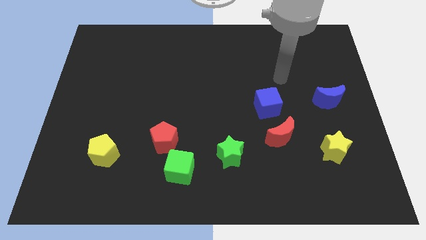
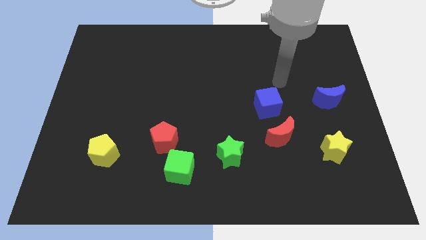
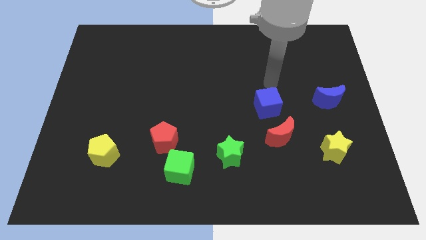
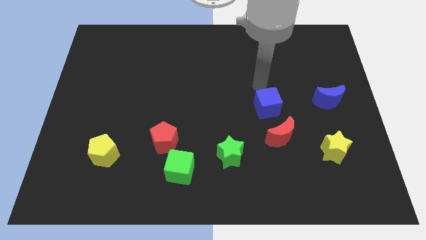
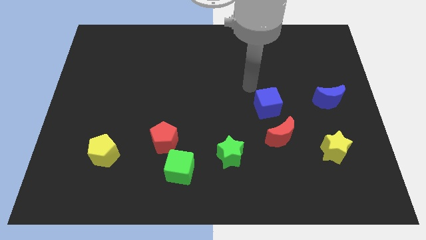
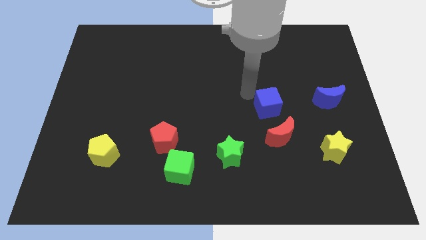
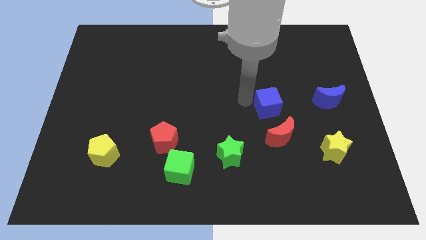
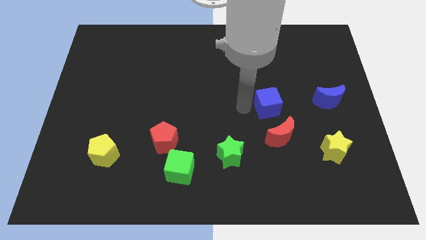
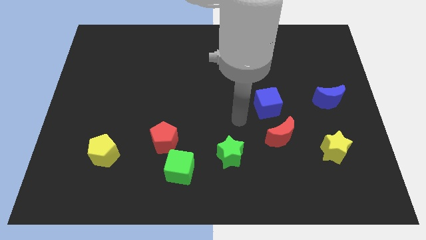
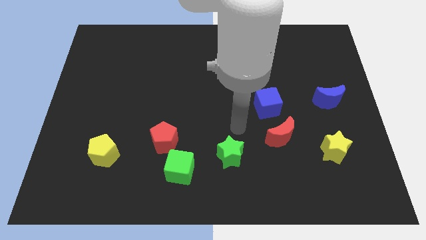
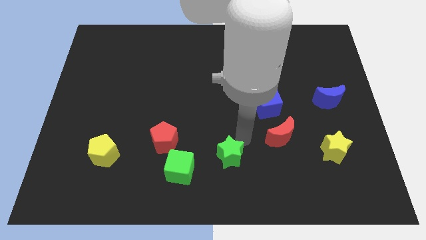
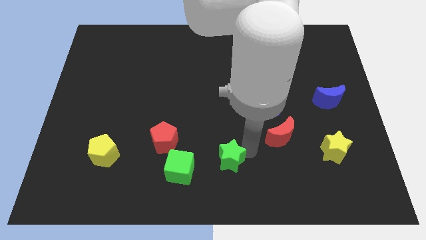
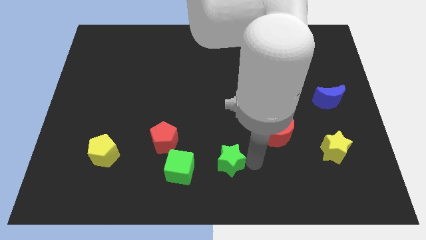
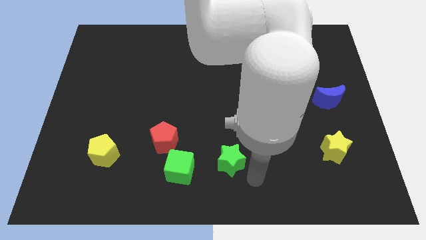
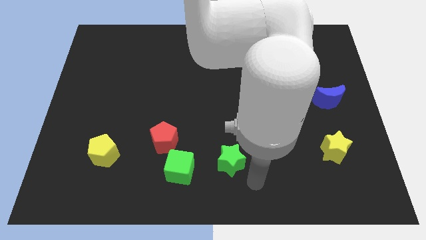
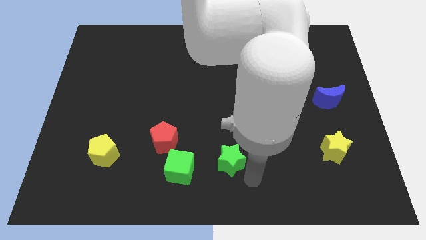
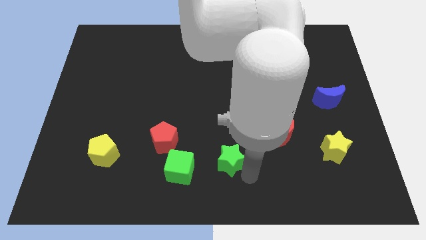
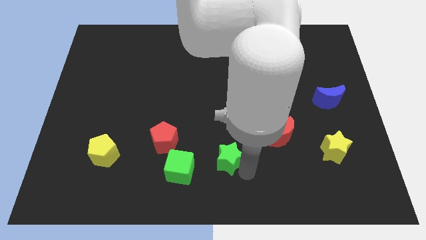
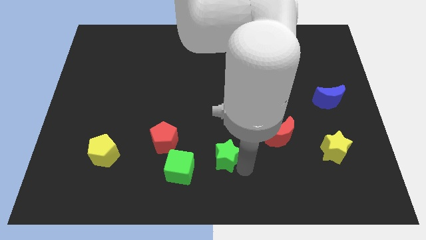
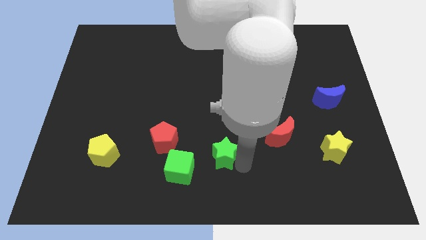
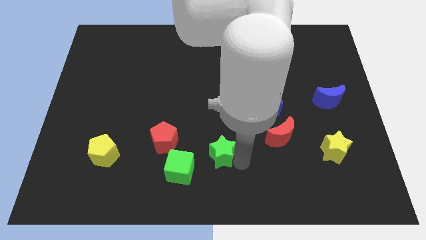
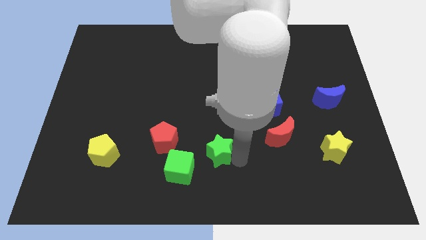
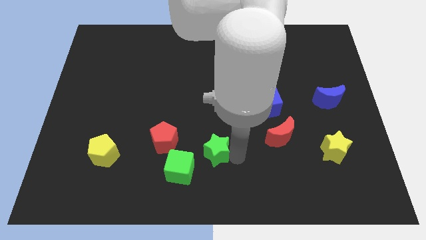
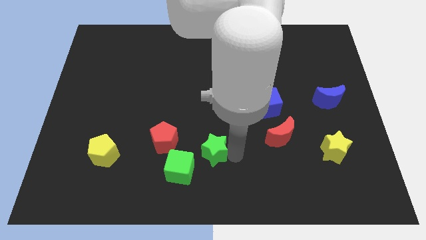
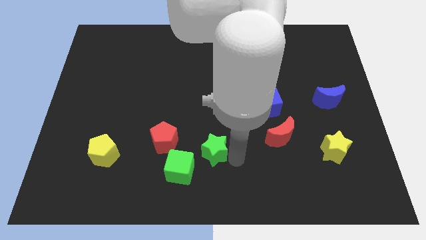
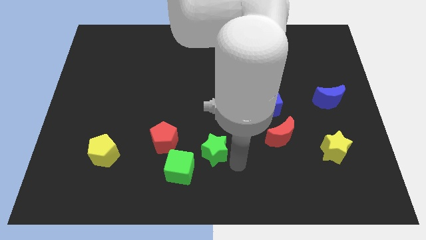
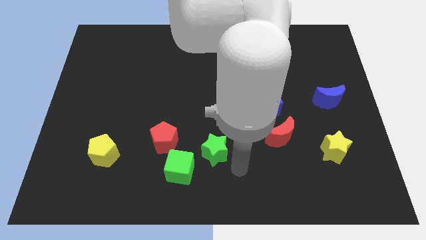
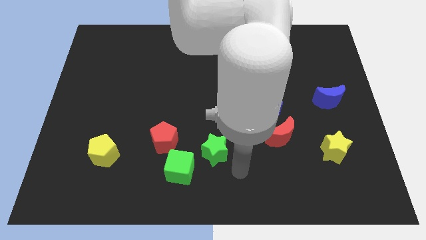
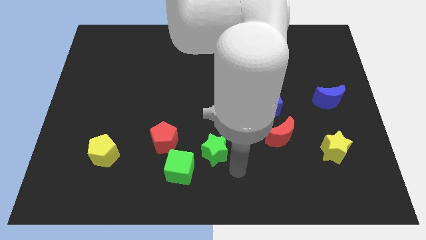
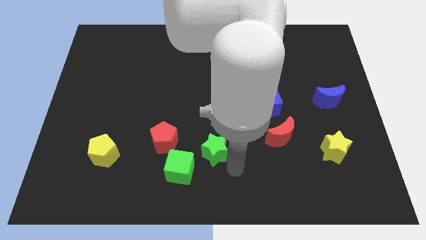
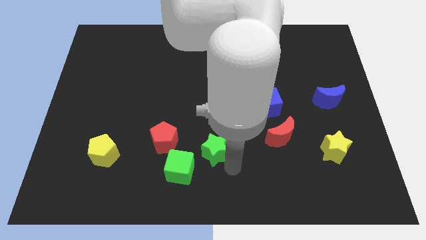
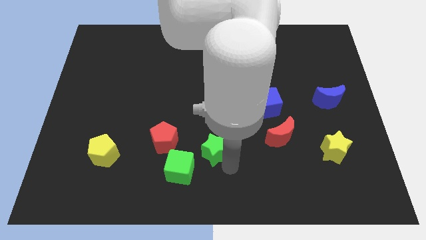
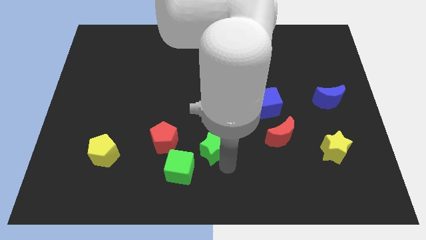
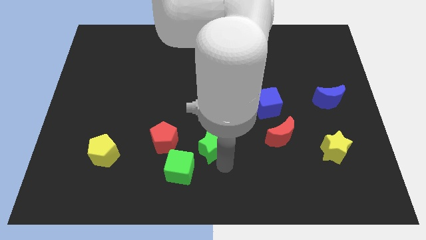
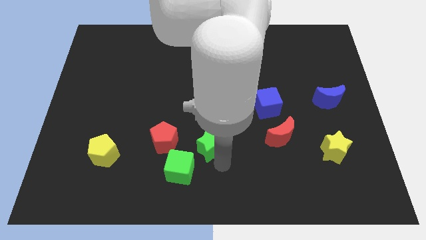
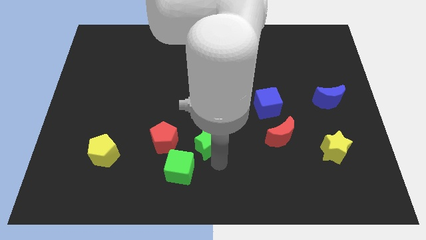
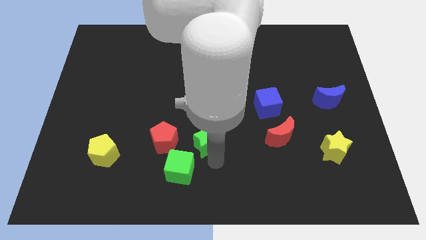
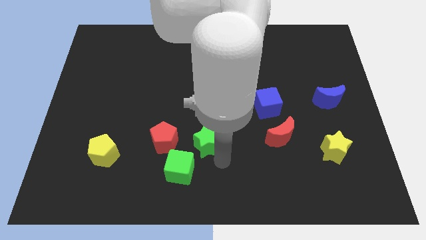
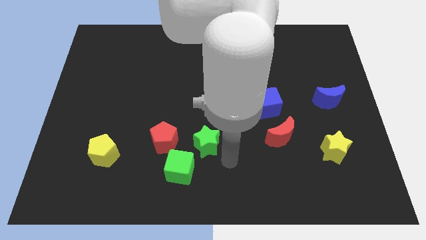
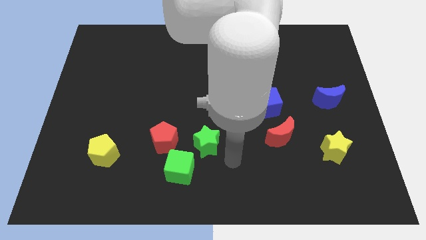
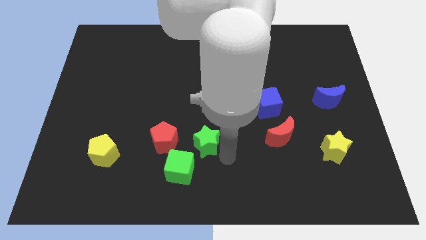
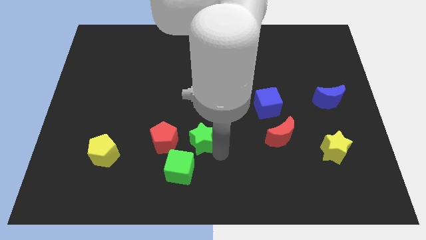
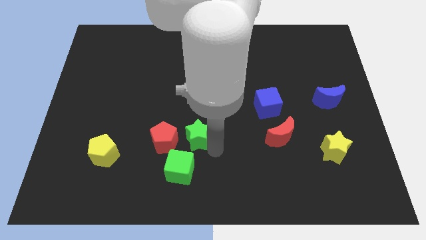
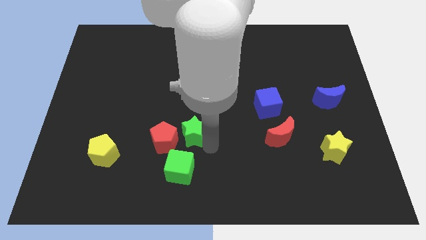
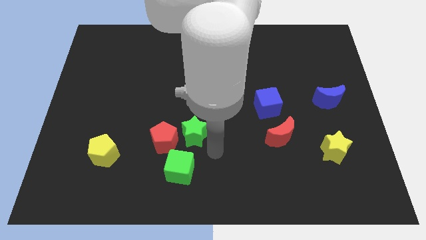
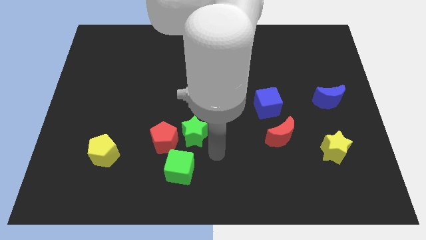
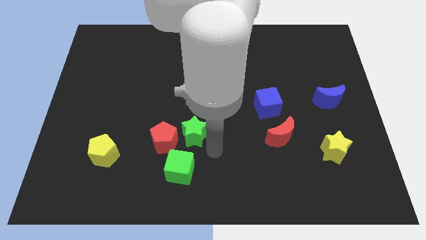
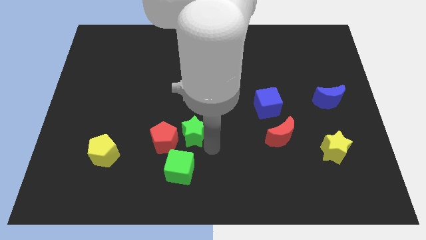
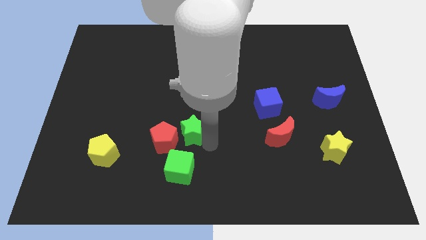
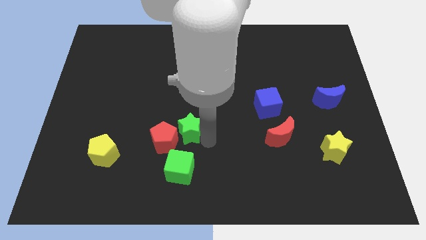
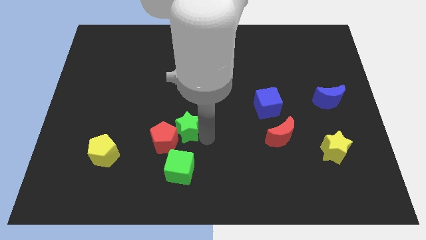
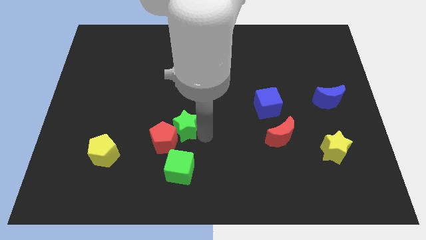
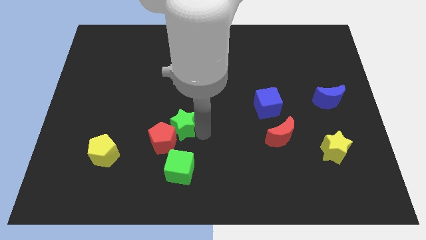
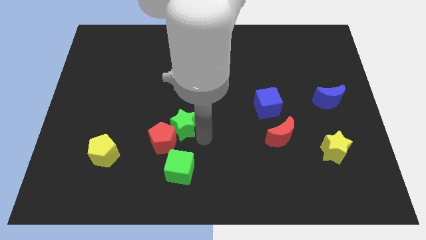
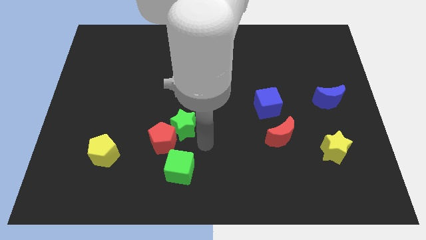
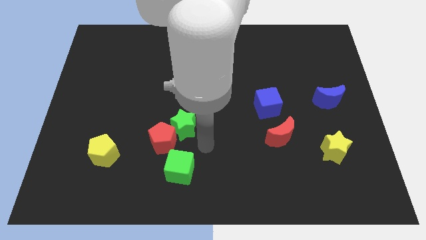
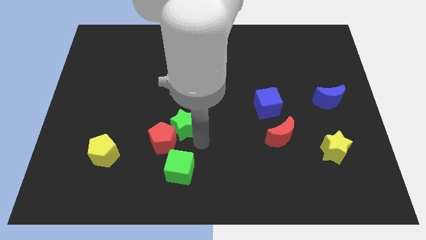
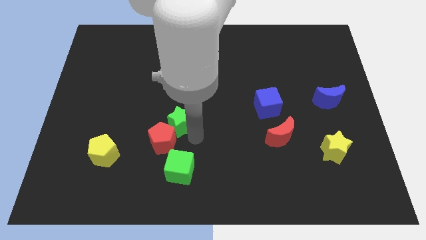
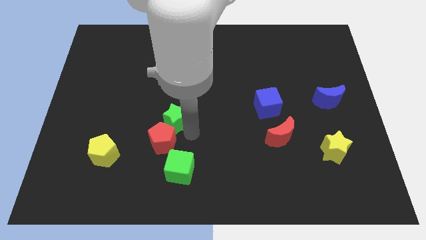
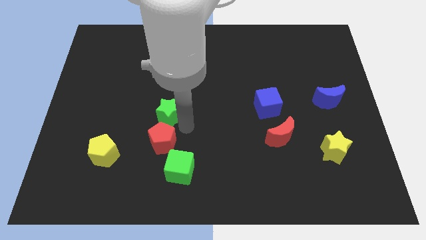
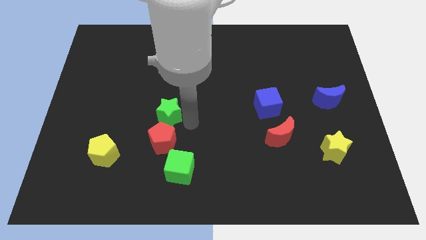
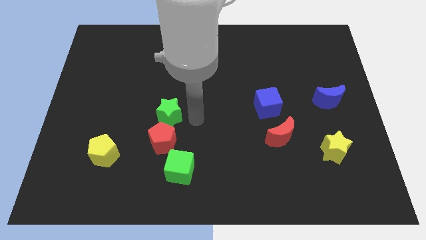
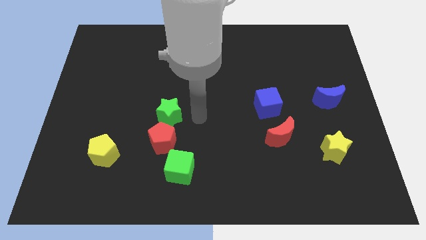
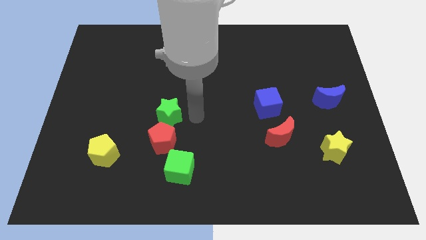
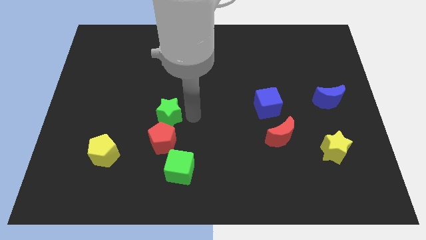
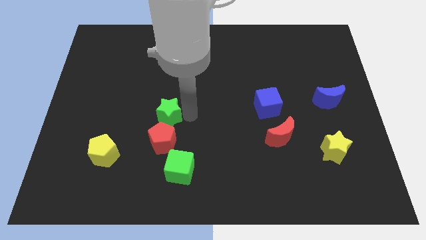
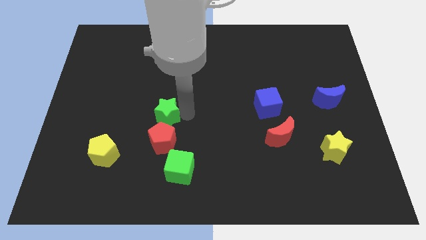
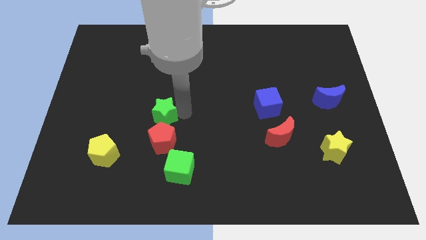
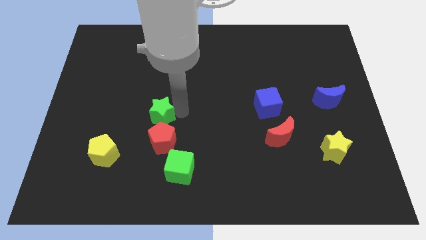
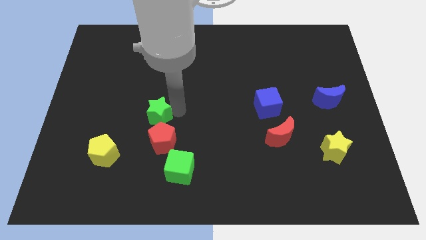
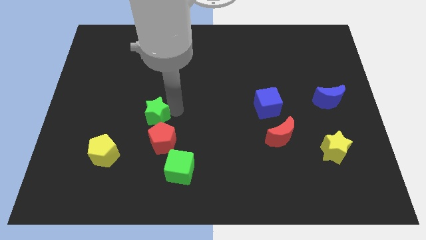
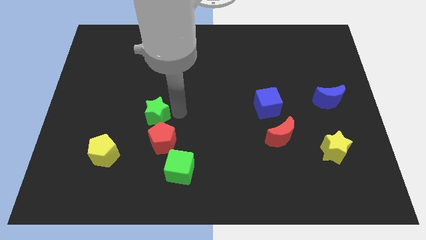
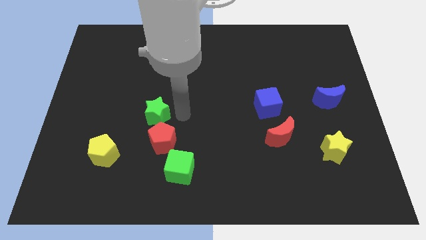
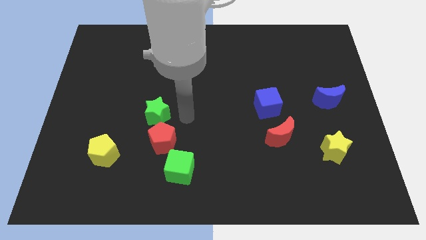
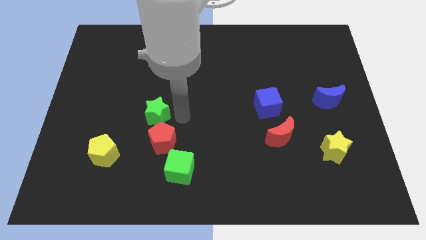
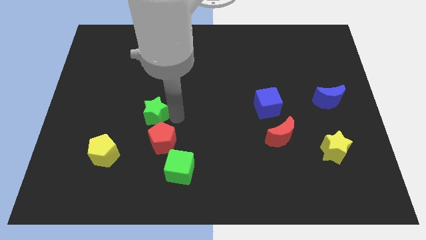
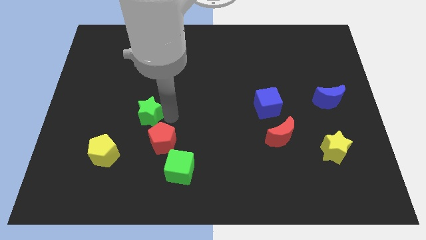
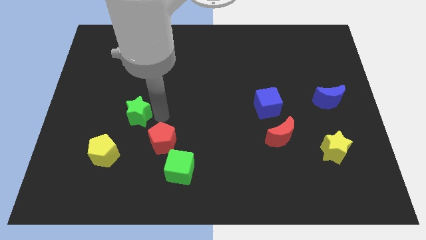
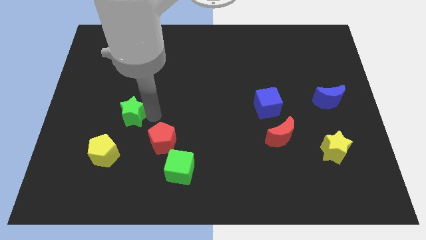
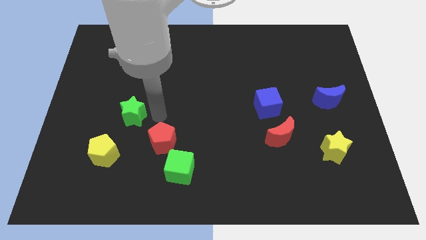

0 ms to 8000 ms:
push the green star to the top side of the yellow pentagon
